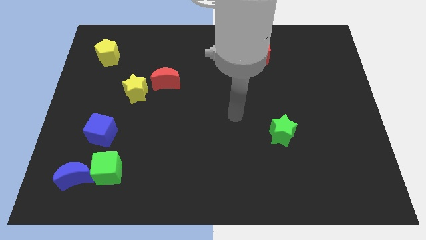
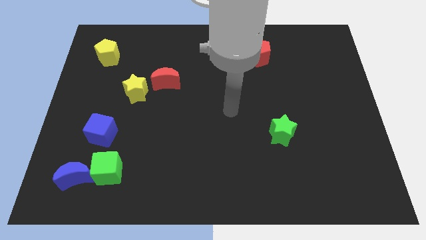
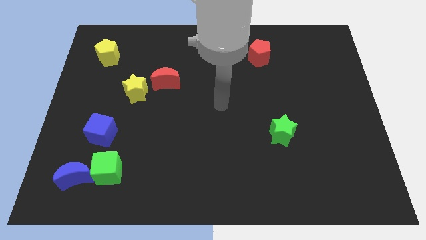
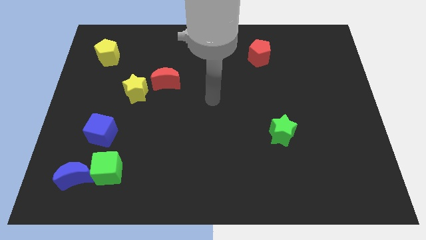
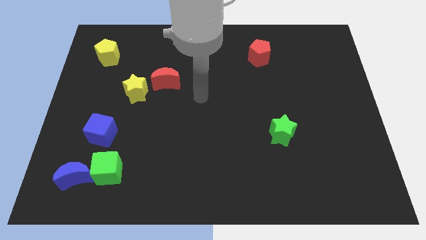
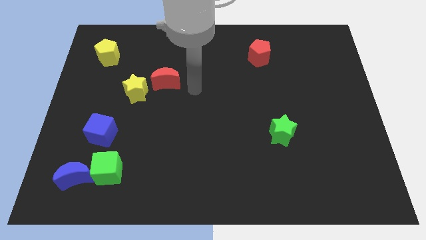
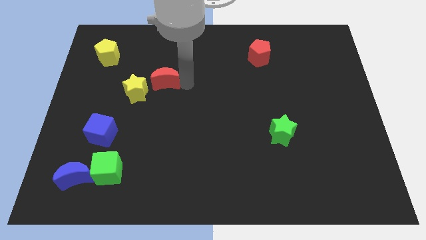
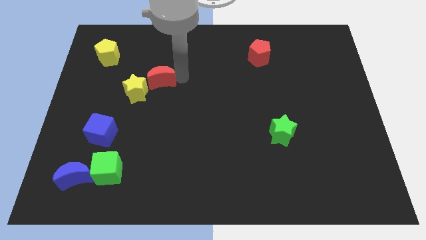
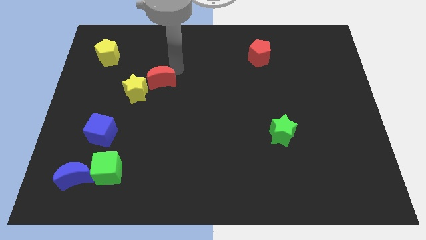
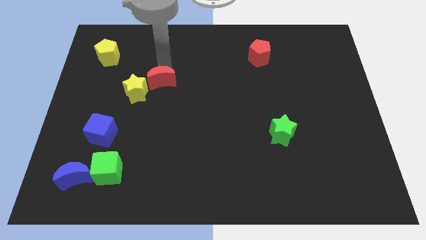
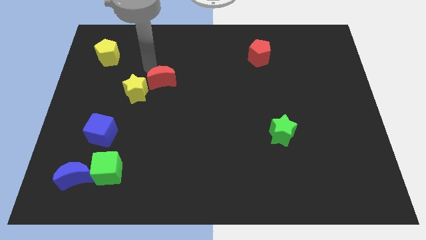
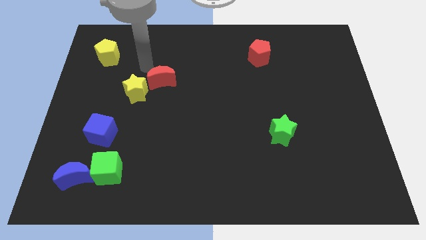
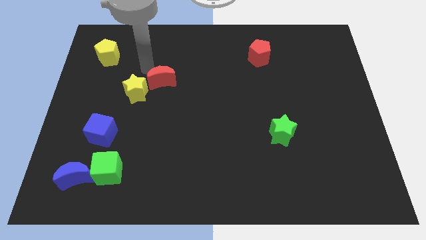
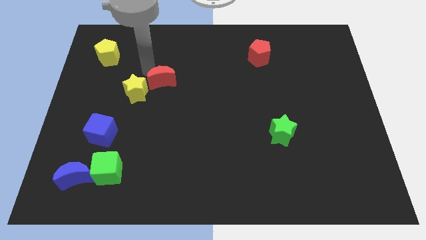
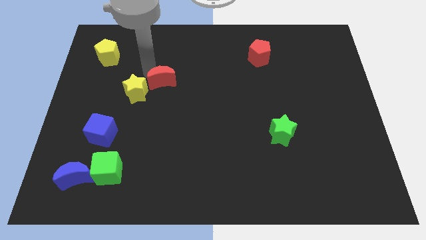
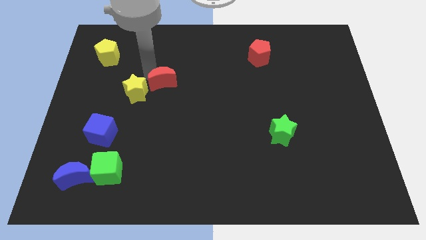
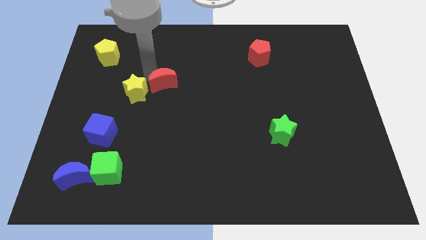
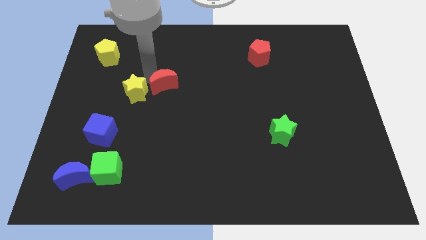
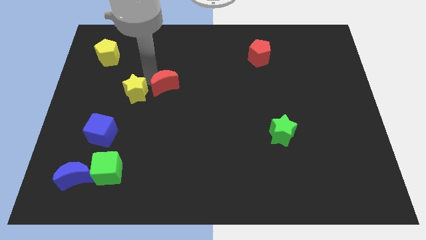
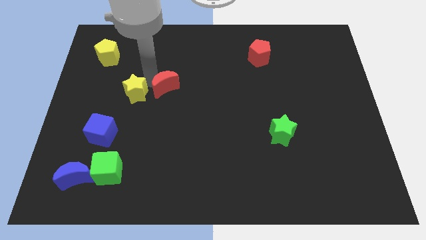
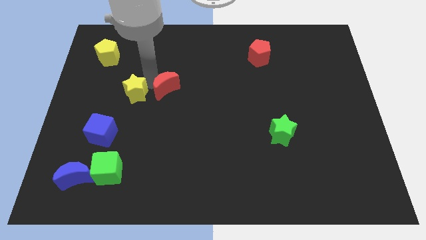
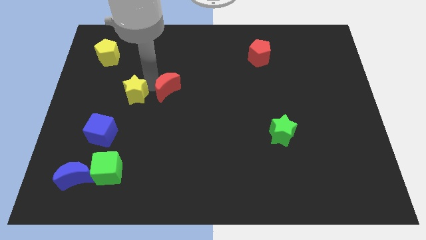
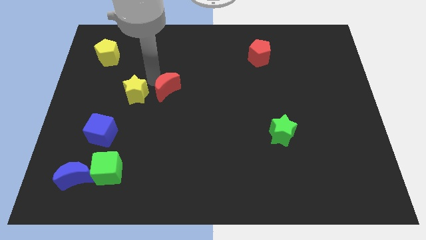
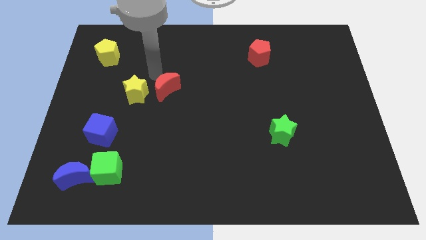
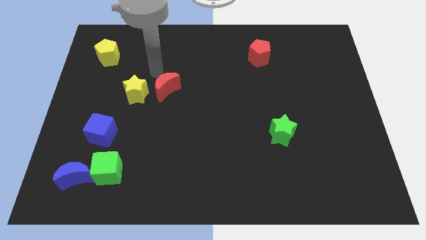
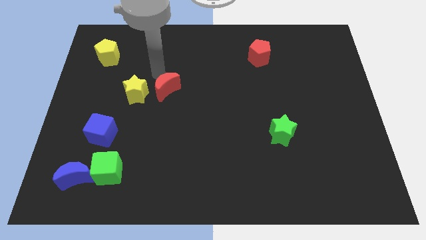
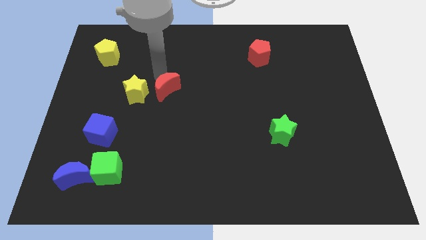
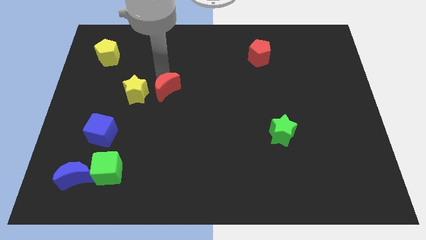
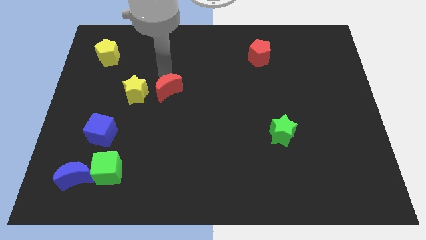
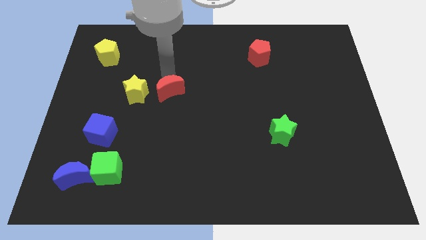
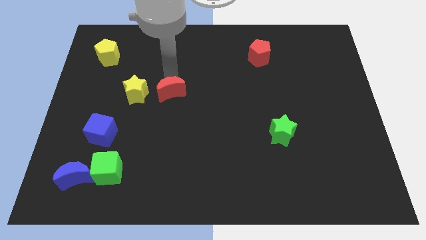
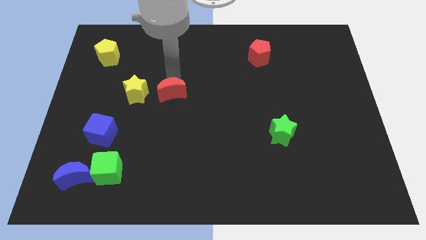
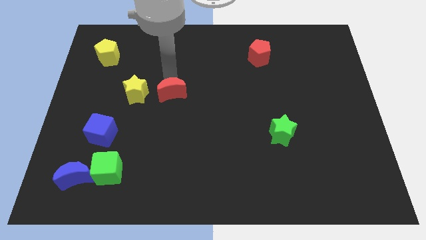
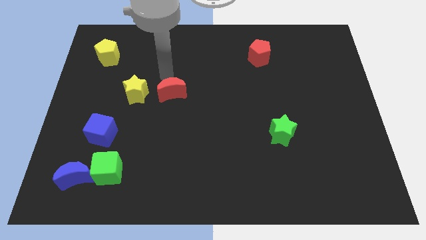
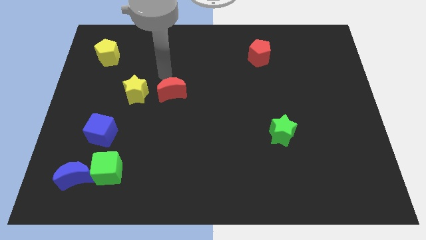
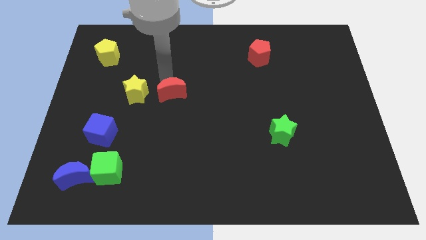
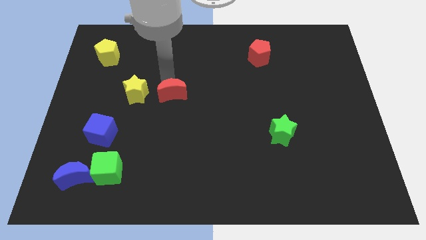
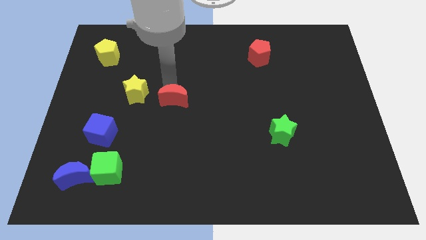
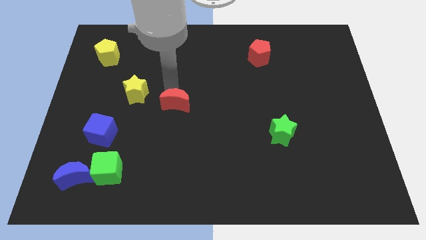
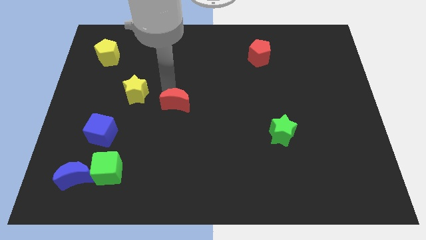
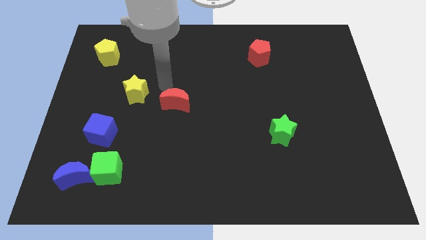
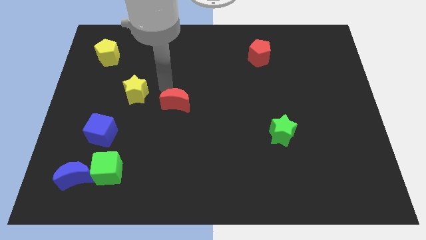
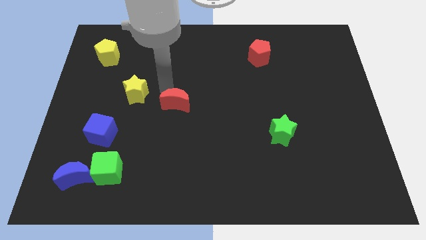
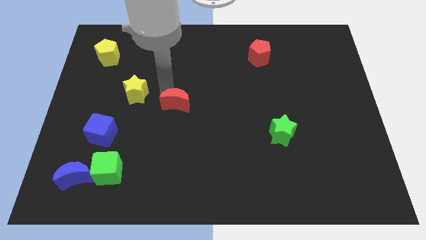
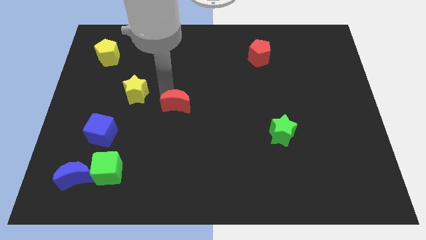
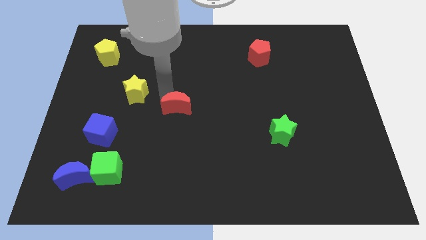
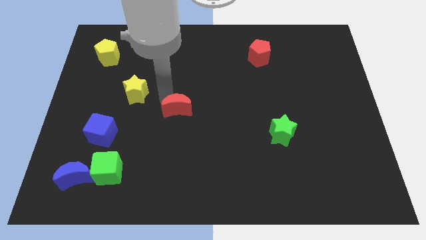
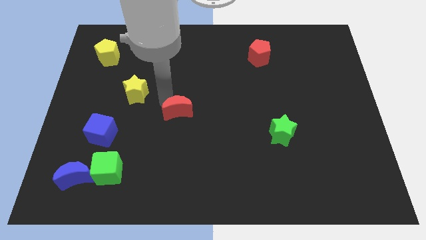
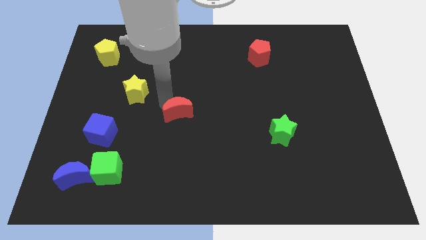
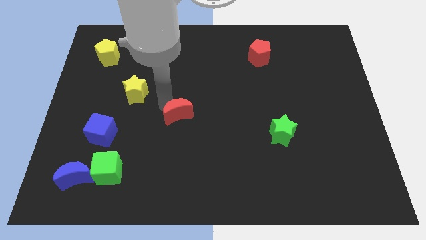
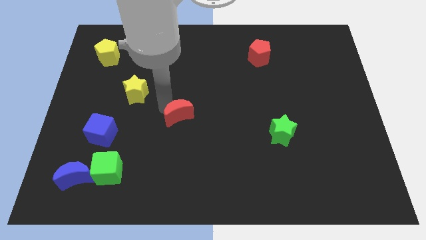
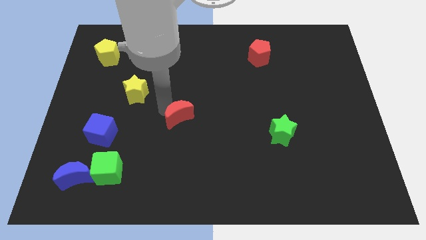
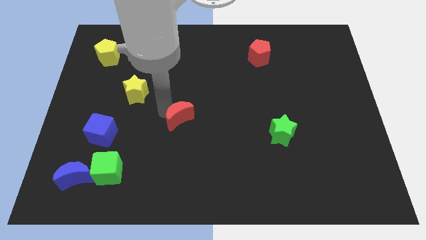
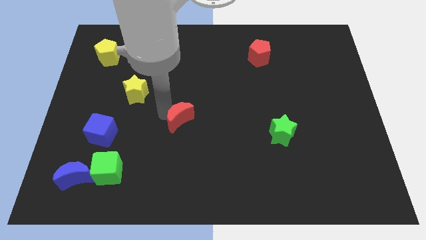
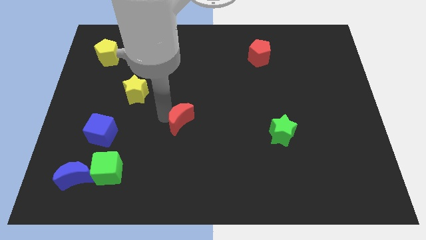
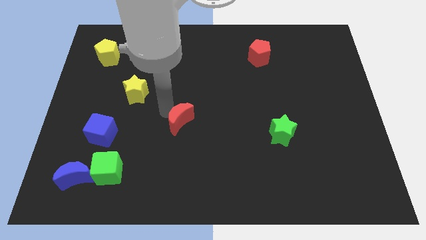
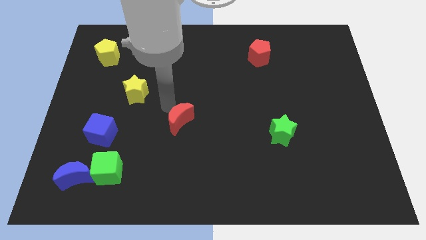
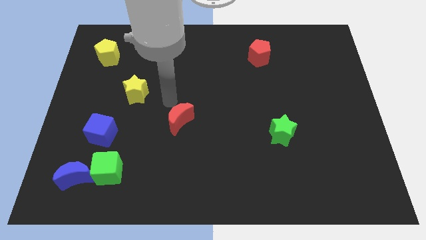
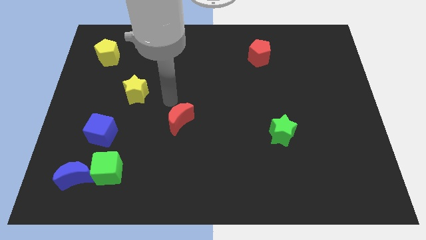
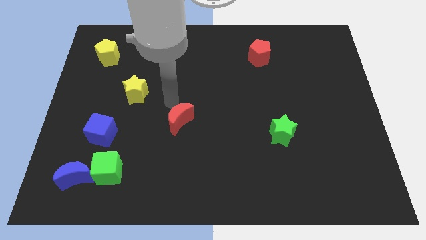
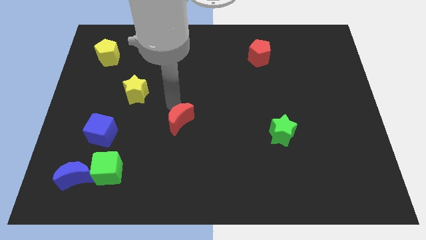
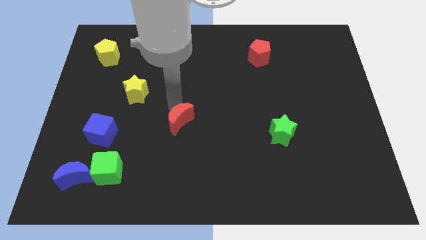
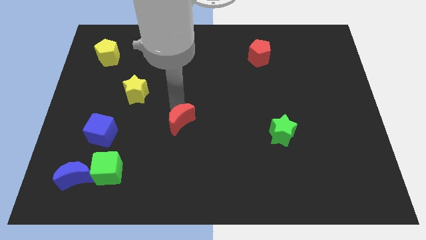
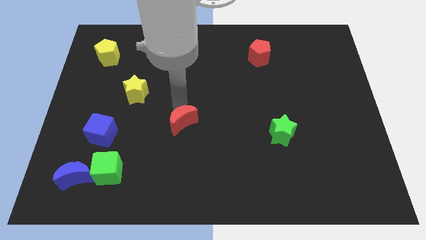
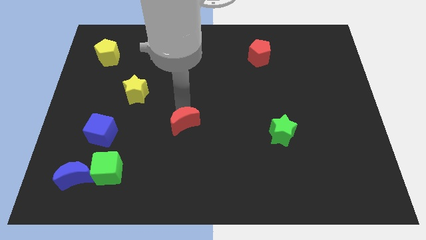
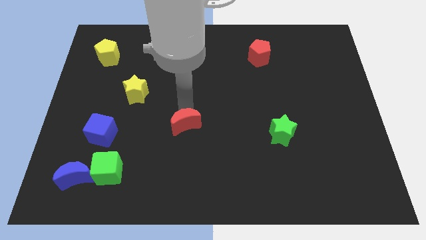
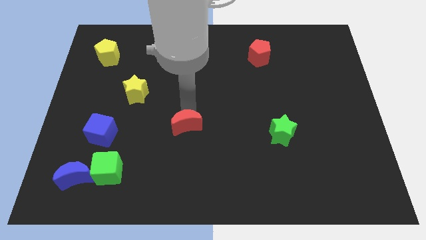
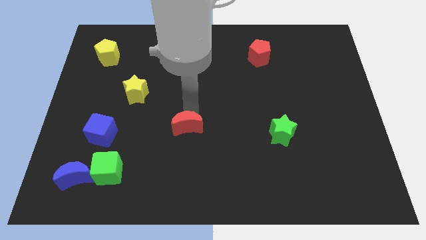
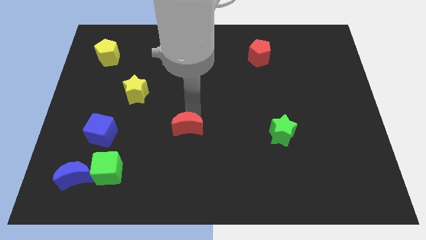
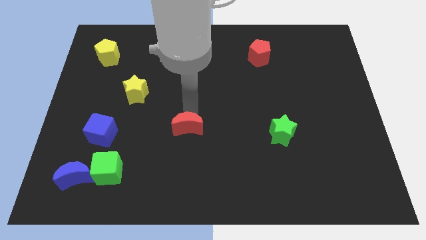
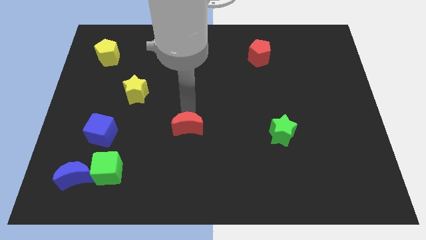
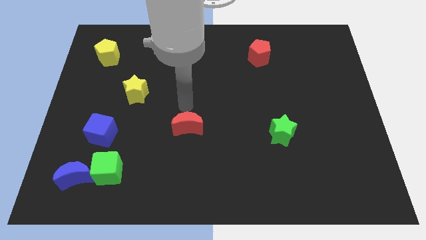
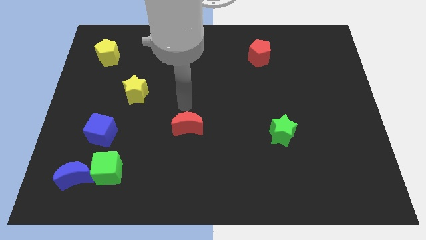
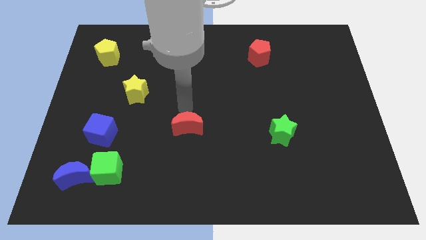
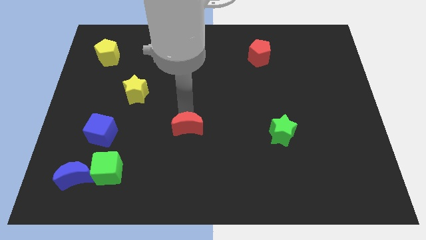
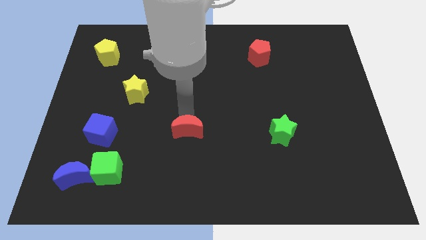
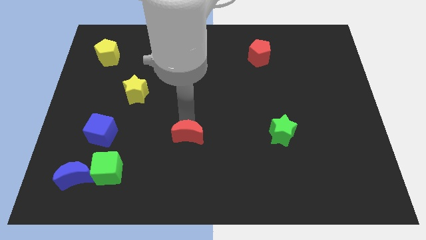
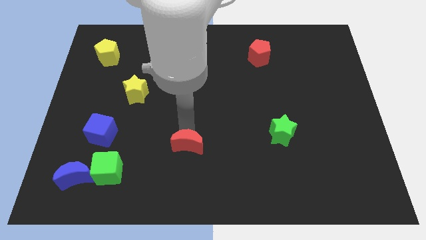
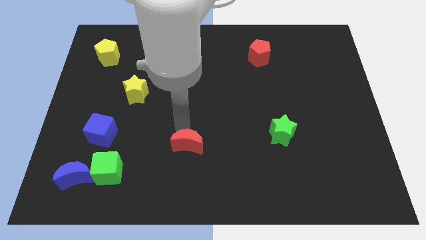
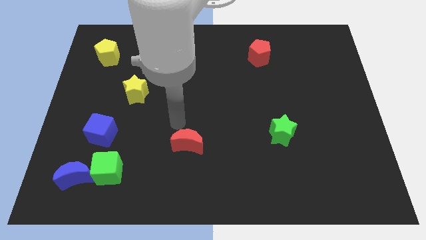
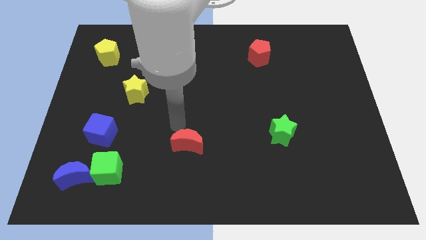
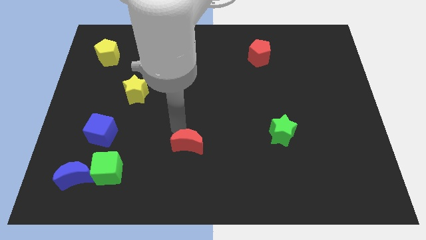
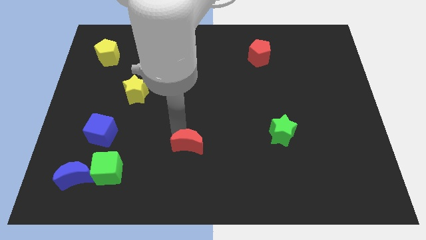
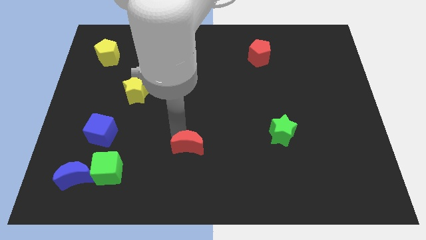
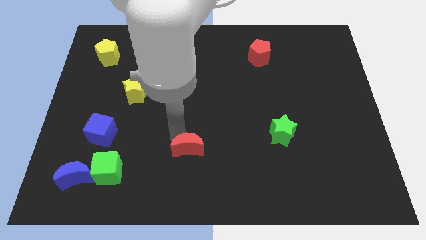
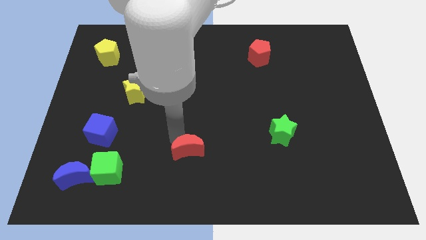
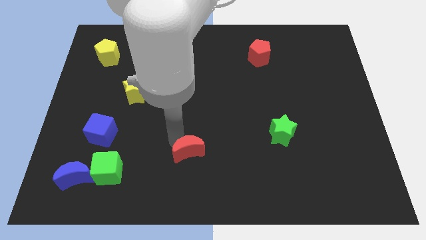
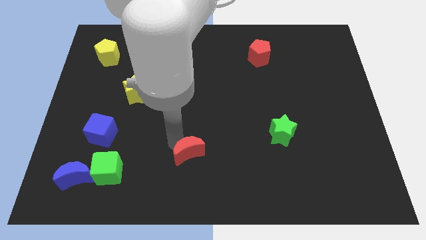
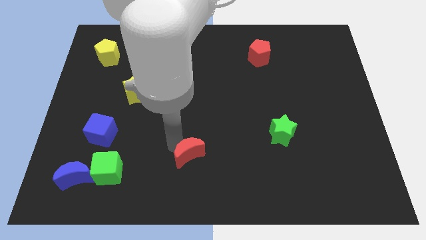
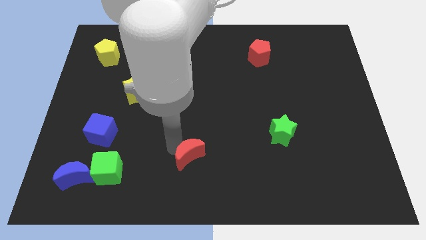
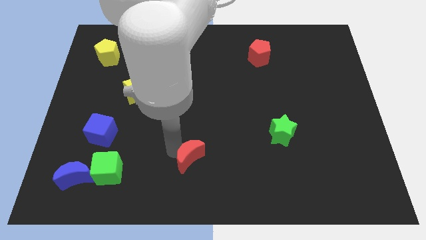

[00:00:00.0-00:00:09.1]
push the red moon to the bottom side
